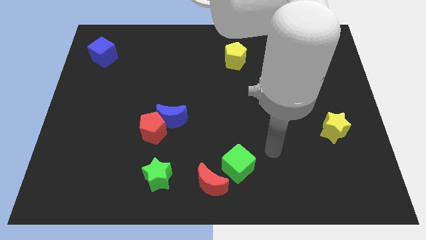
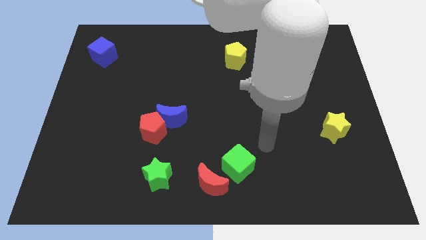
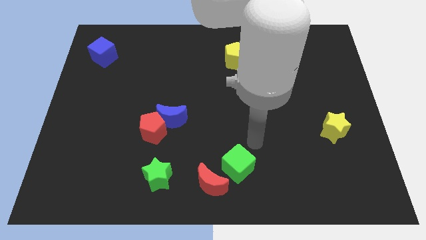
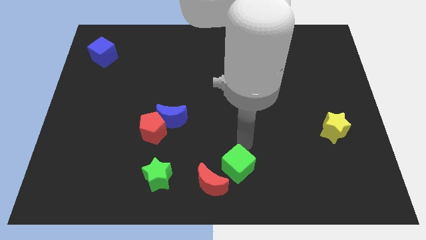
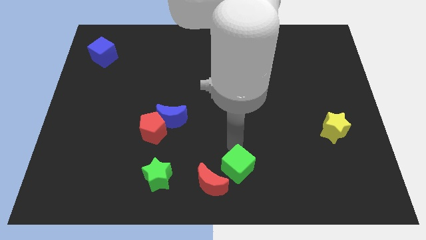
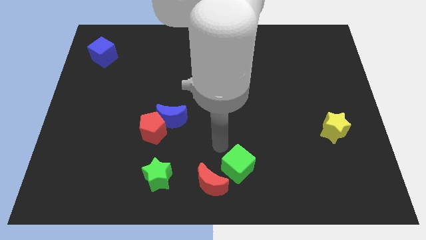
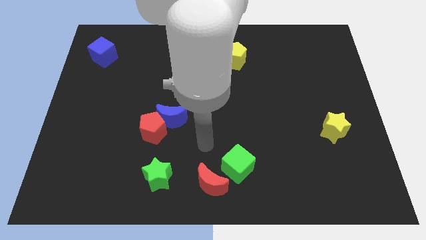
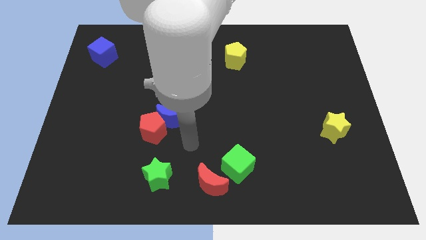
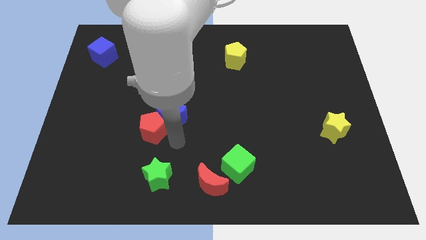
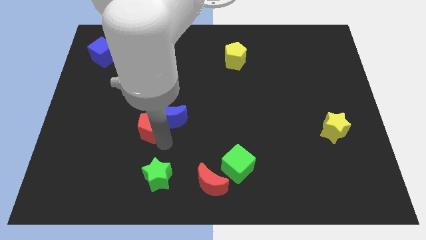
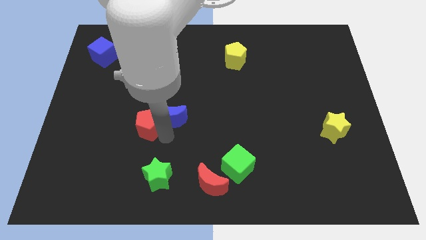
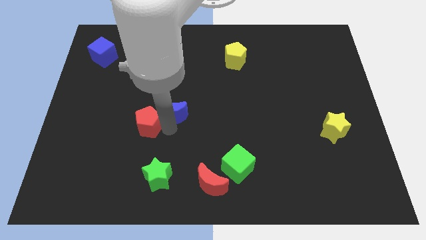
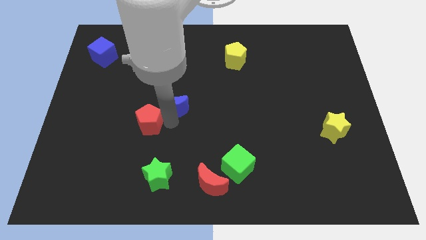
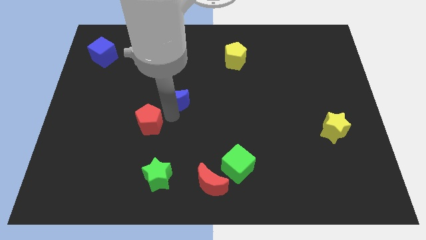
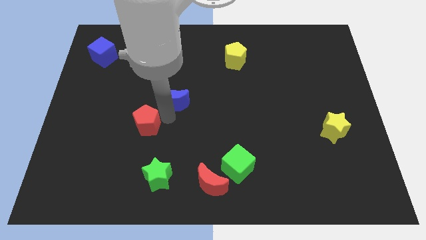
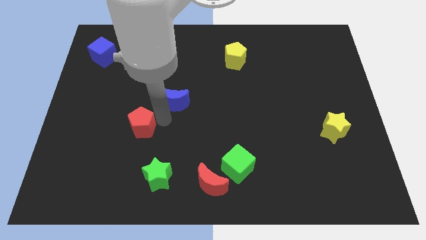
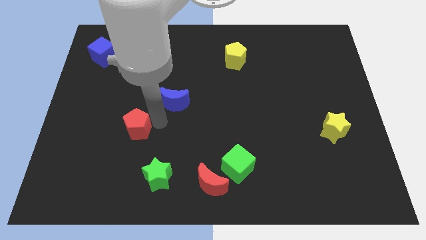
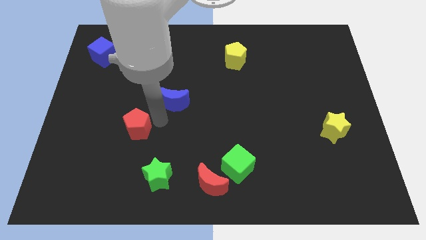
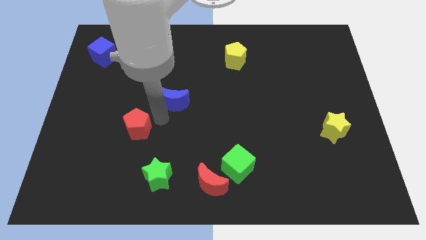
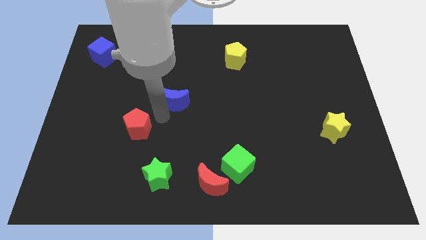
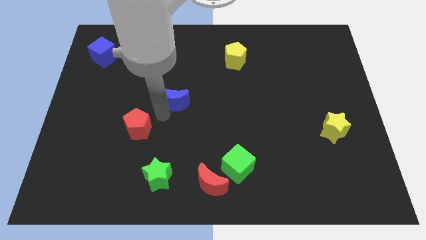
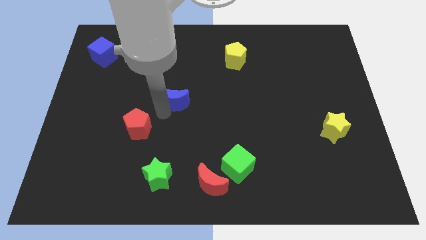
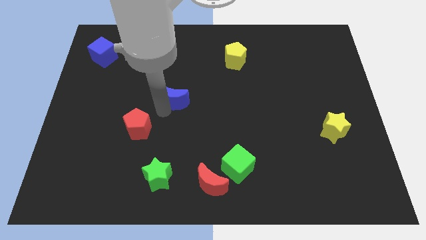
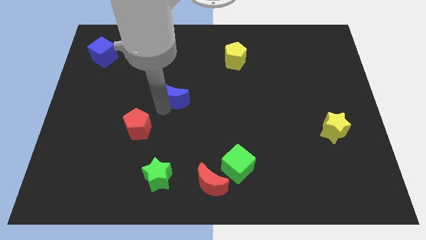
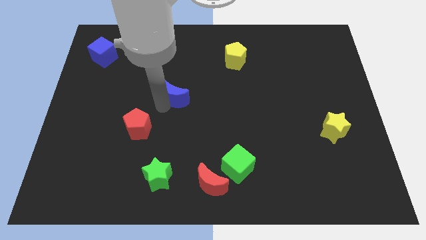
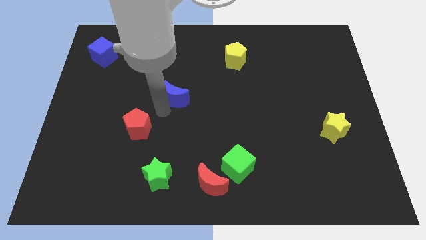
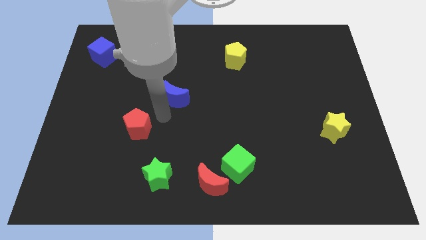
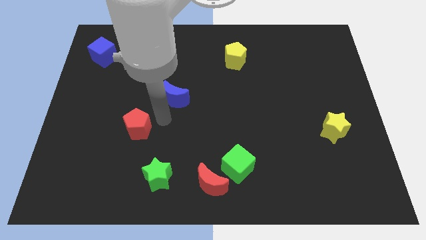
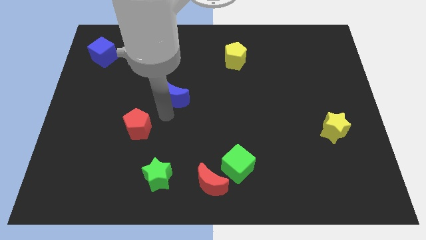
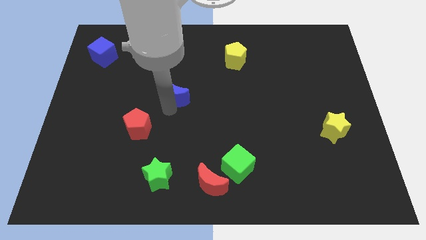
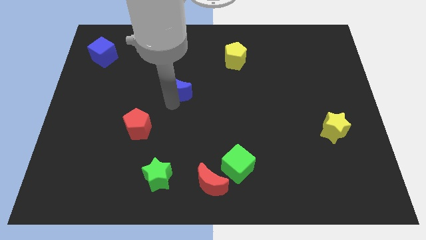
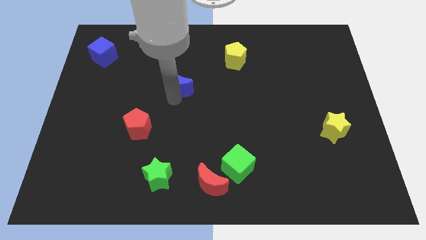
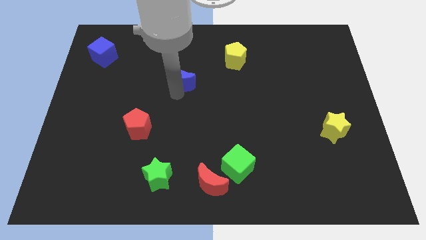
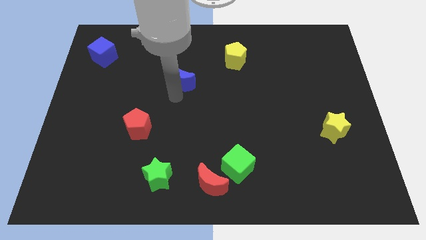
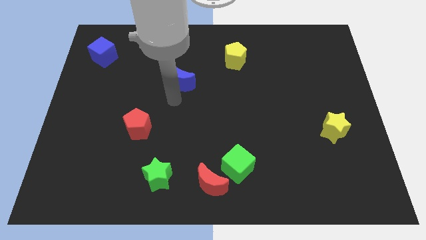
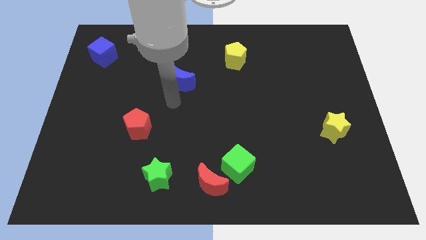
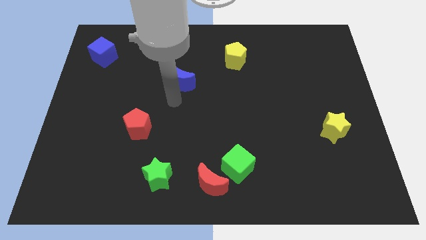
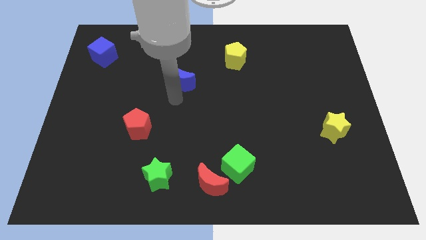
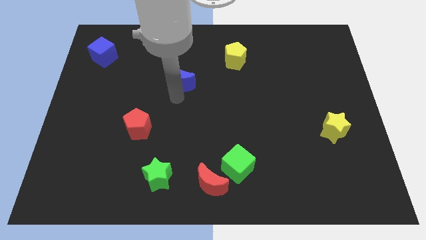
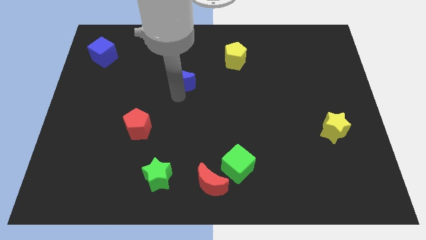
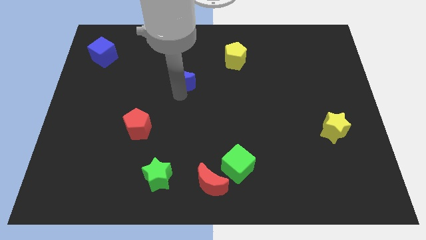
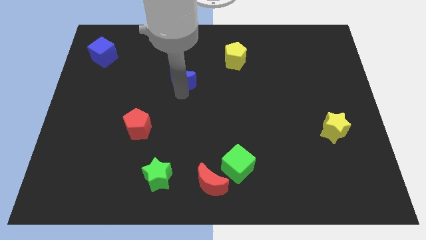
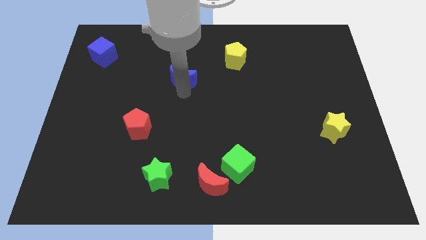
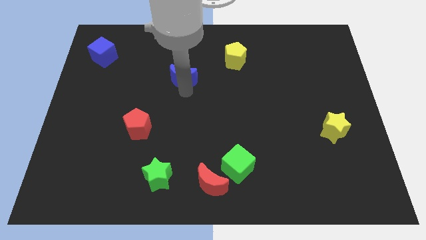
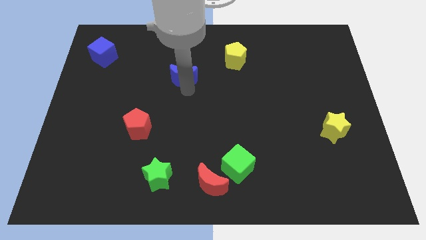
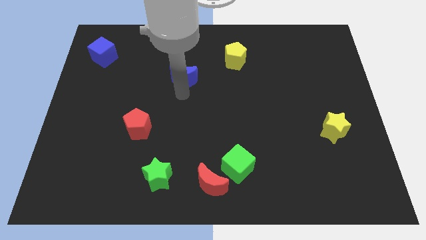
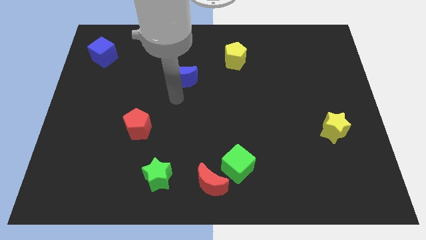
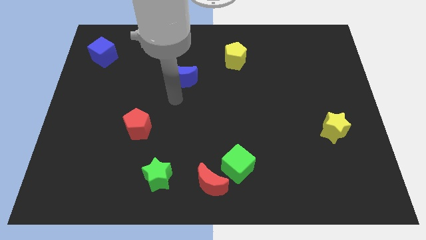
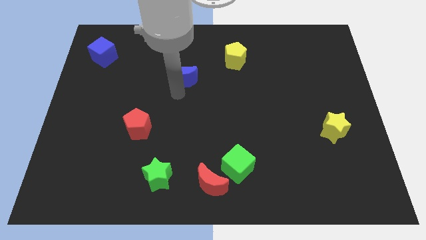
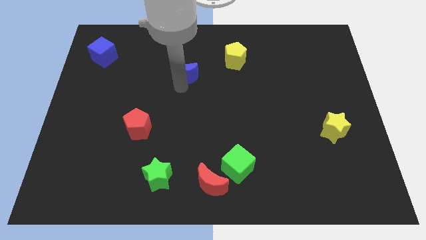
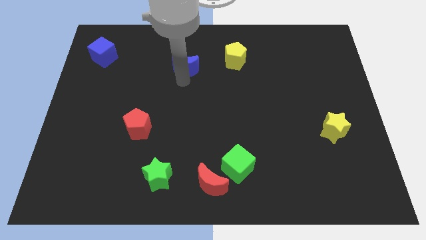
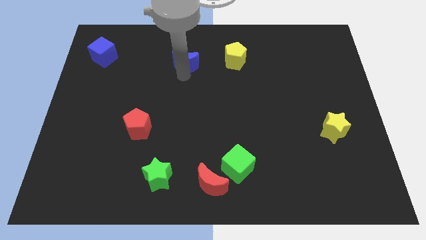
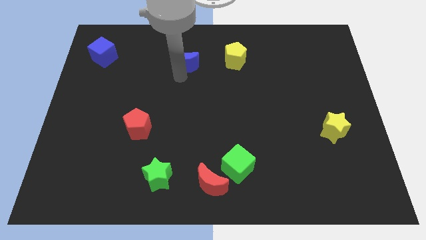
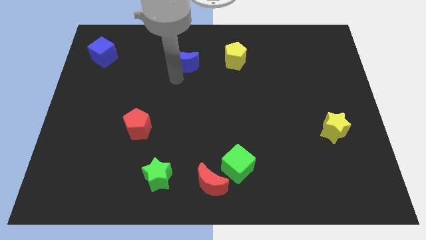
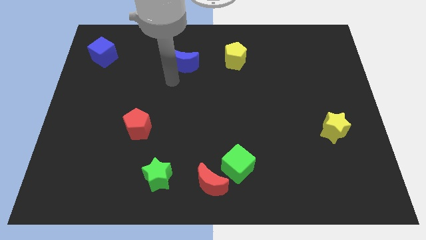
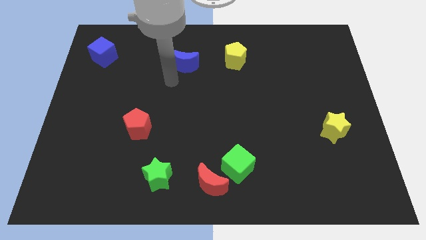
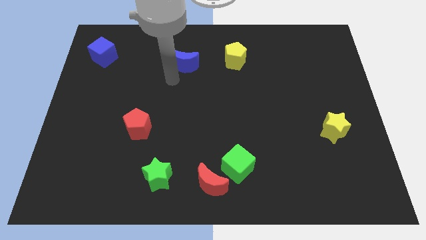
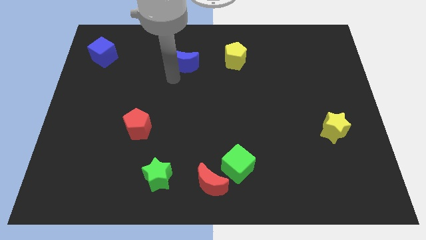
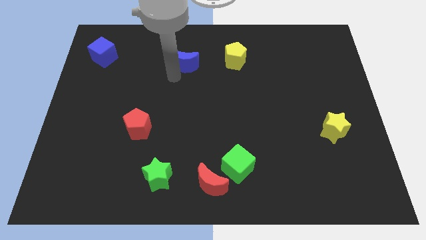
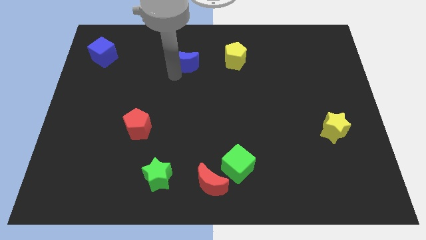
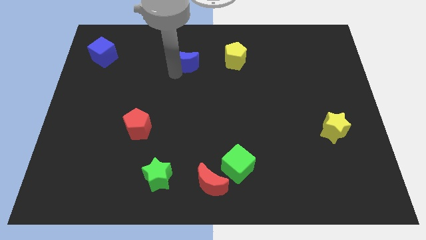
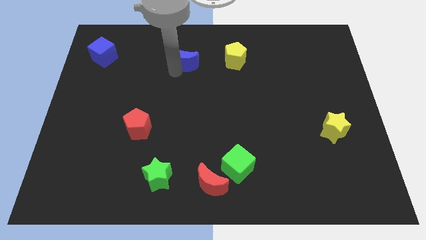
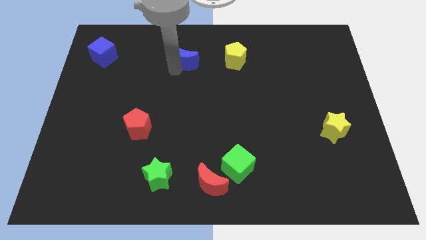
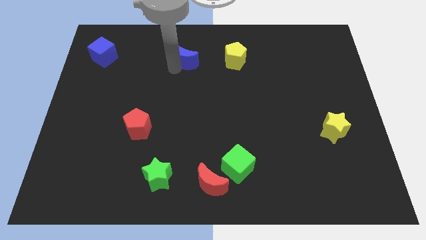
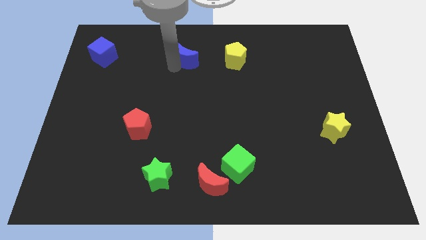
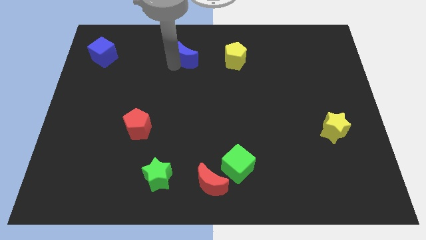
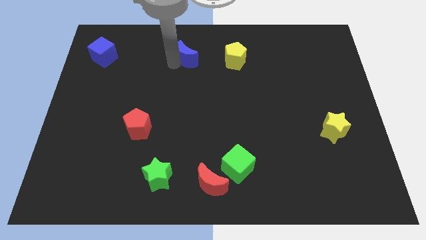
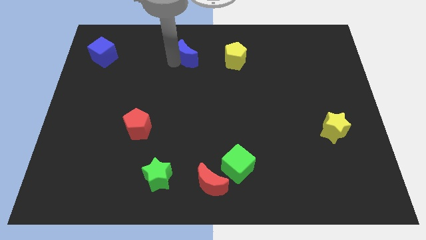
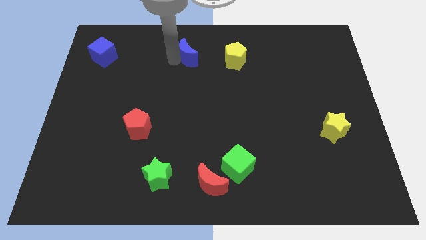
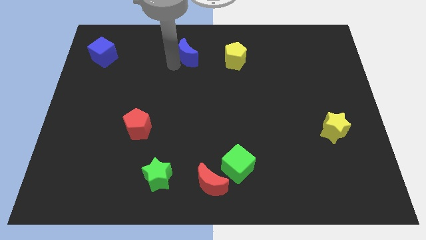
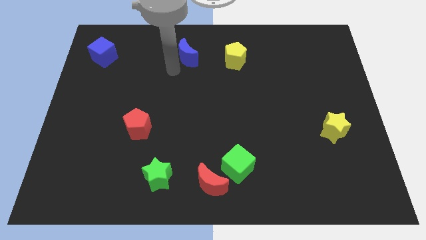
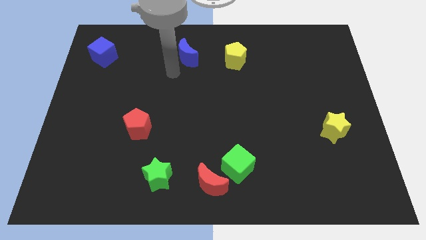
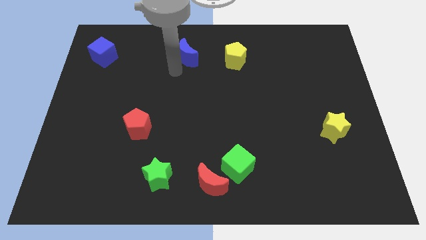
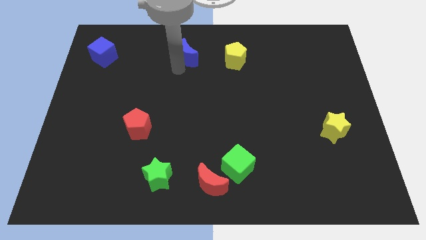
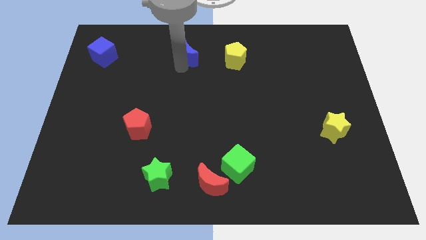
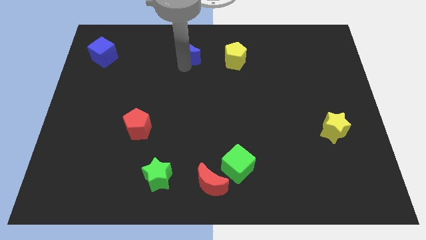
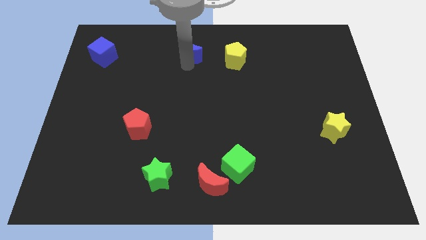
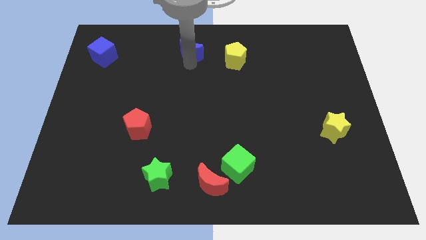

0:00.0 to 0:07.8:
slide the blue moon to the towards your base
